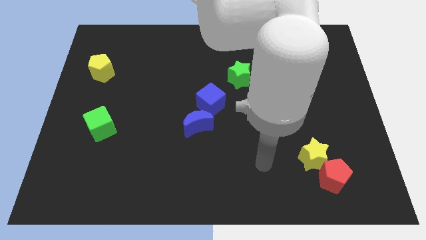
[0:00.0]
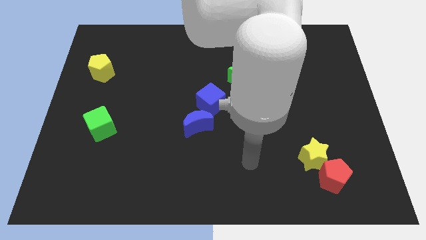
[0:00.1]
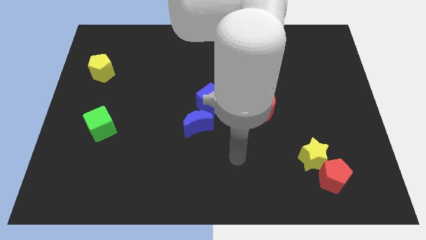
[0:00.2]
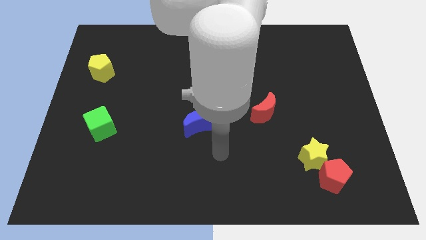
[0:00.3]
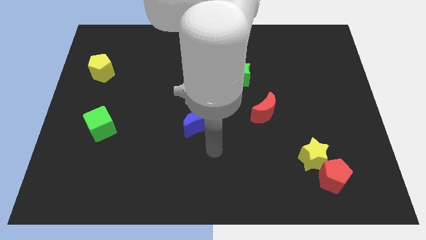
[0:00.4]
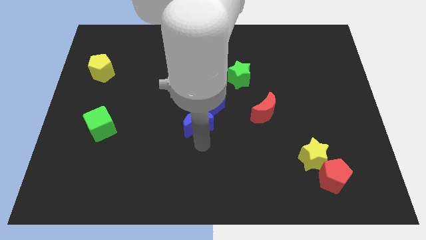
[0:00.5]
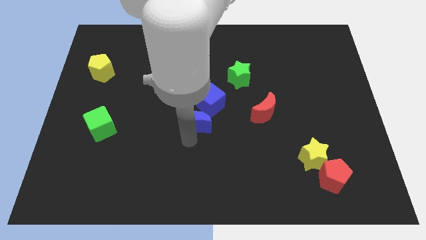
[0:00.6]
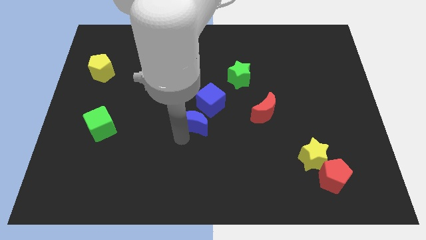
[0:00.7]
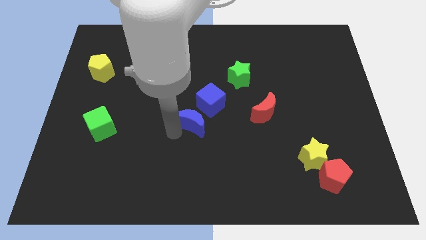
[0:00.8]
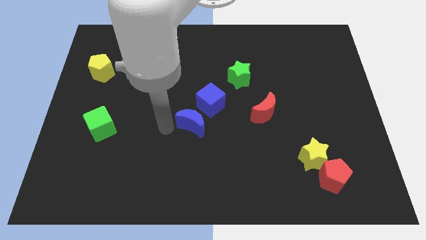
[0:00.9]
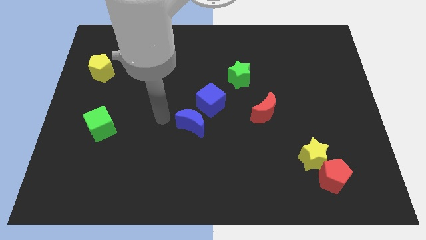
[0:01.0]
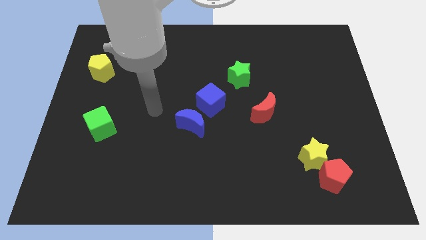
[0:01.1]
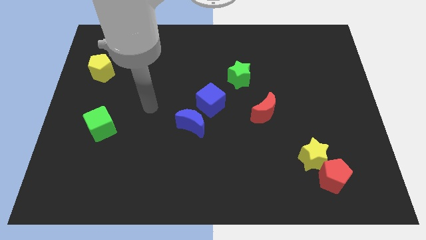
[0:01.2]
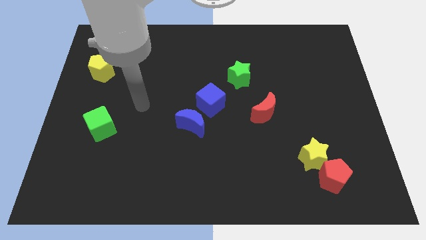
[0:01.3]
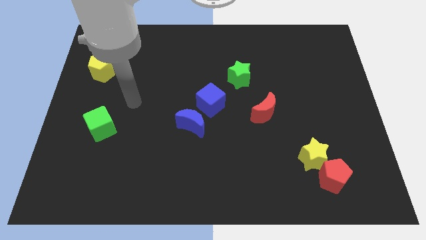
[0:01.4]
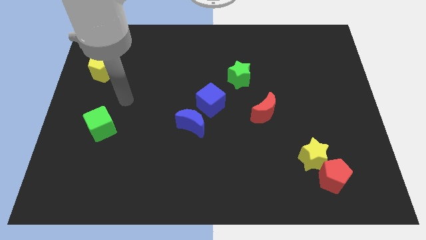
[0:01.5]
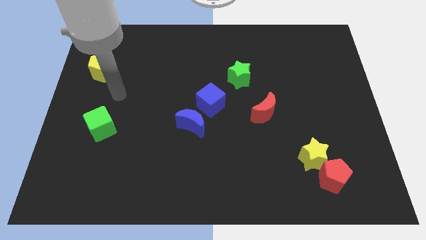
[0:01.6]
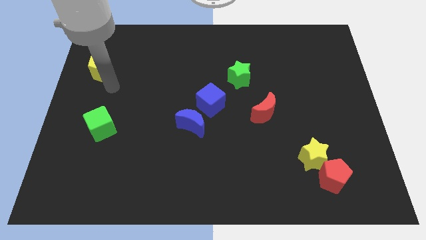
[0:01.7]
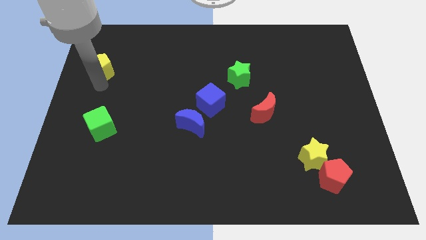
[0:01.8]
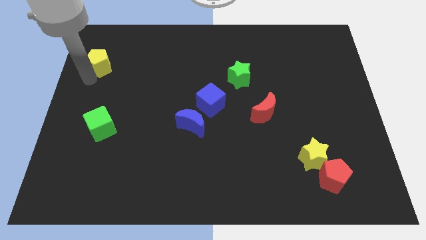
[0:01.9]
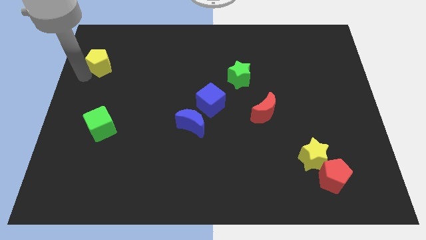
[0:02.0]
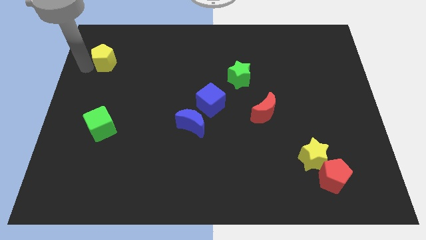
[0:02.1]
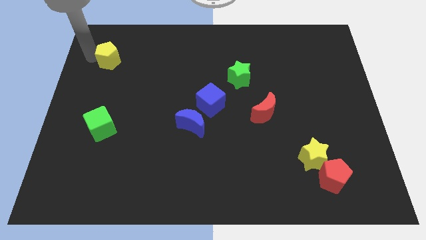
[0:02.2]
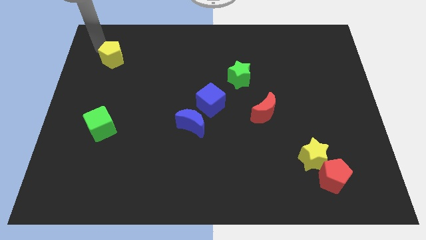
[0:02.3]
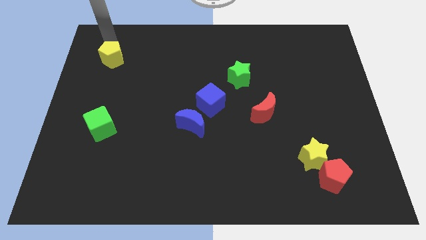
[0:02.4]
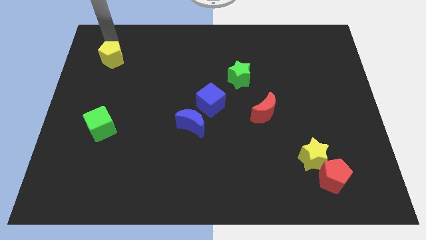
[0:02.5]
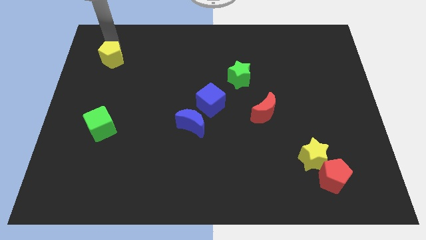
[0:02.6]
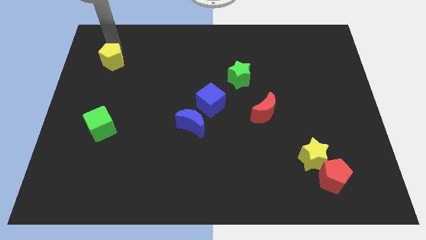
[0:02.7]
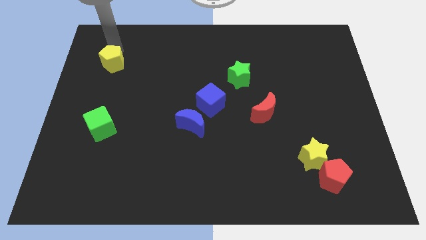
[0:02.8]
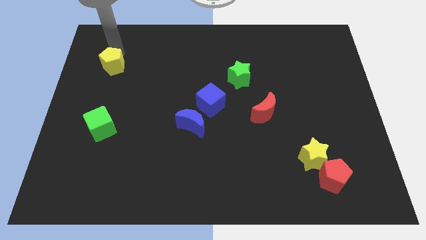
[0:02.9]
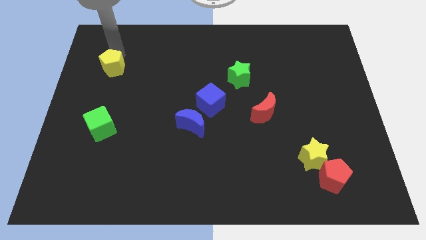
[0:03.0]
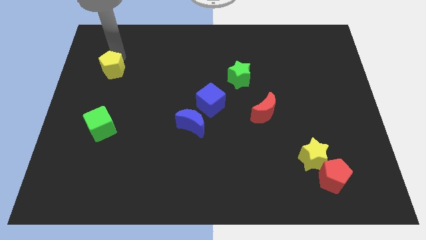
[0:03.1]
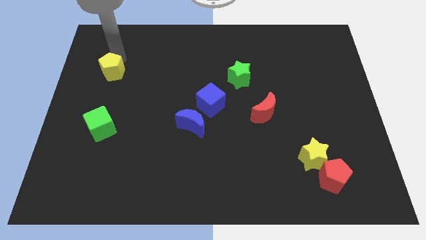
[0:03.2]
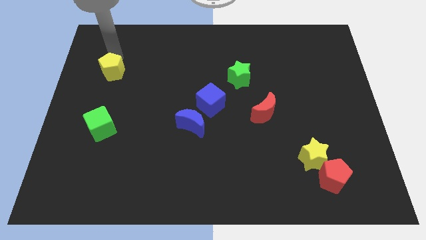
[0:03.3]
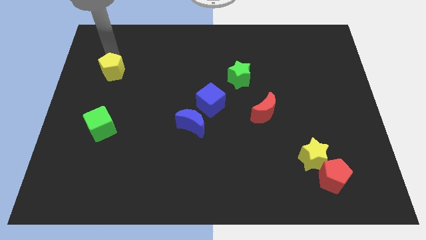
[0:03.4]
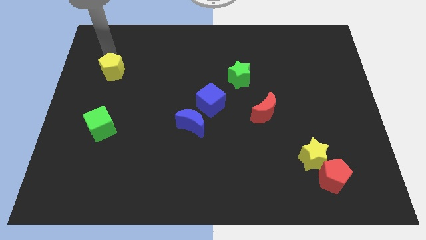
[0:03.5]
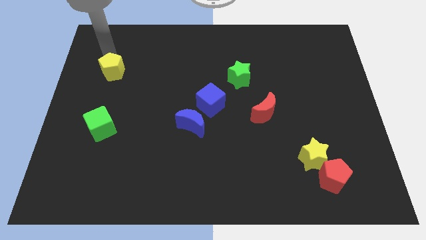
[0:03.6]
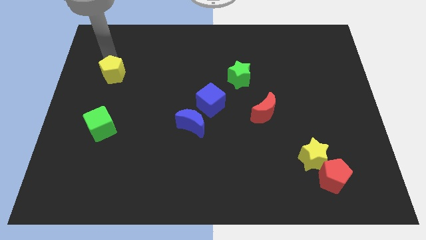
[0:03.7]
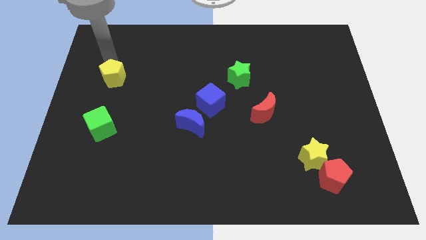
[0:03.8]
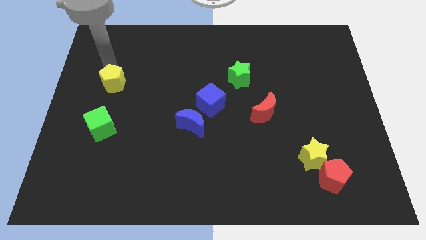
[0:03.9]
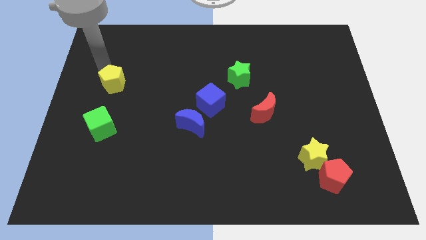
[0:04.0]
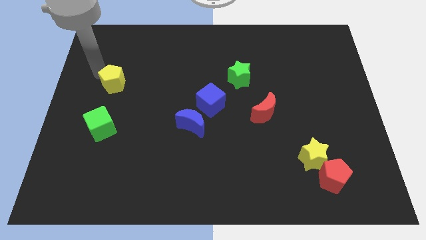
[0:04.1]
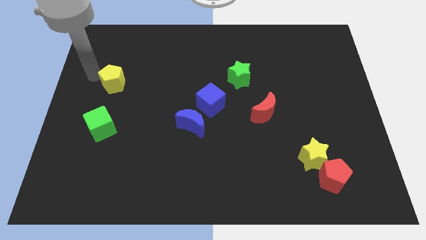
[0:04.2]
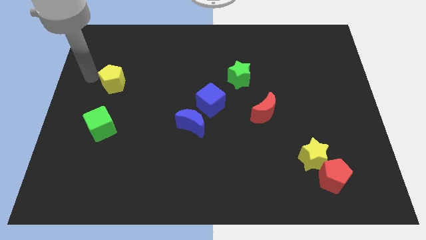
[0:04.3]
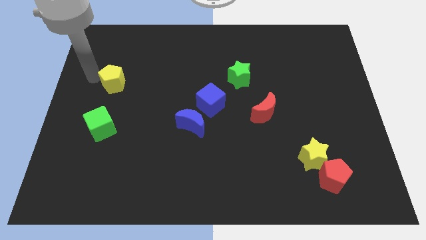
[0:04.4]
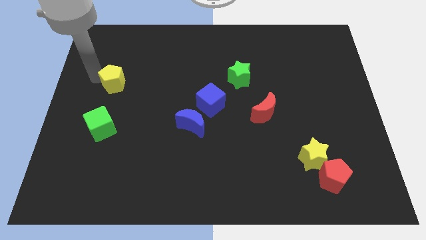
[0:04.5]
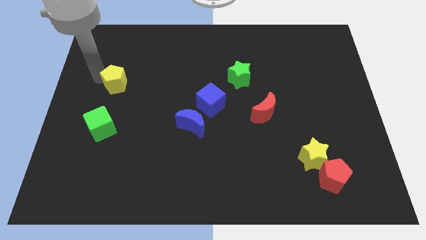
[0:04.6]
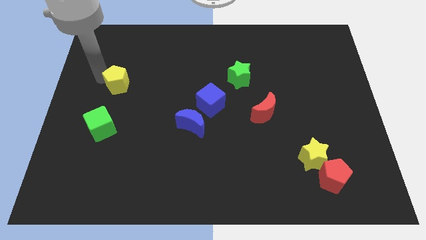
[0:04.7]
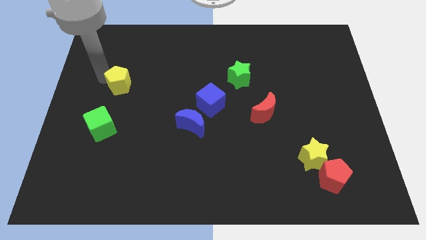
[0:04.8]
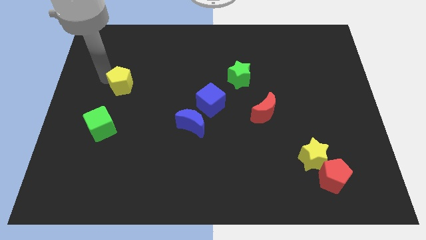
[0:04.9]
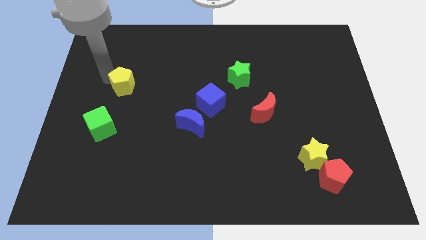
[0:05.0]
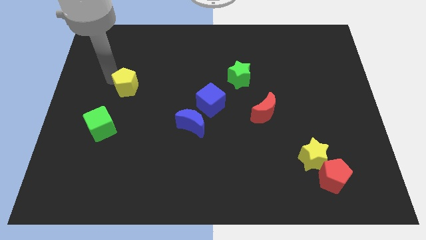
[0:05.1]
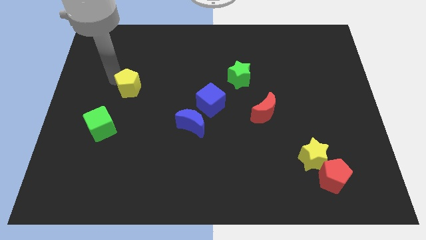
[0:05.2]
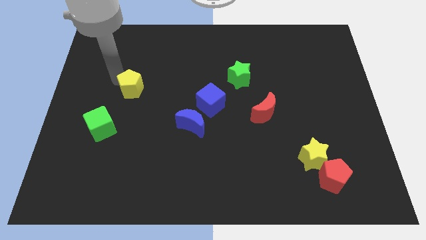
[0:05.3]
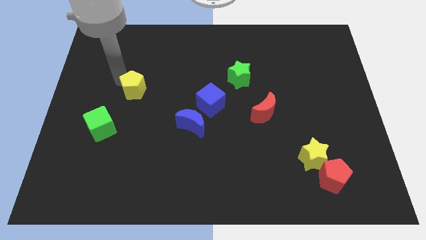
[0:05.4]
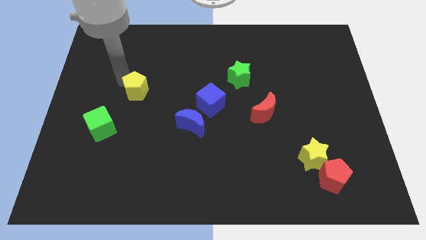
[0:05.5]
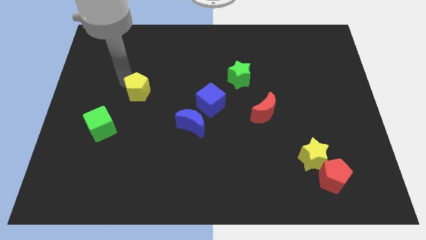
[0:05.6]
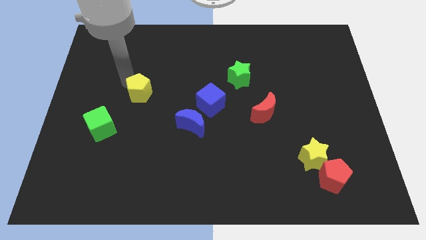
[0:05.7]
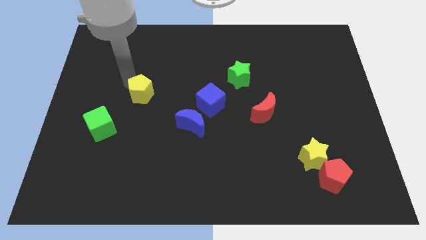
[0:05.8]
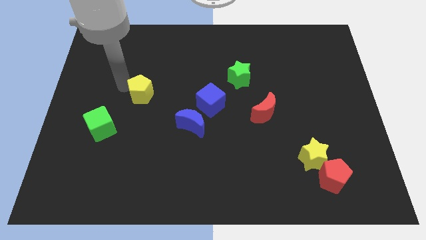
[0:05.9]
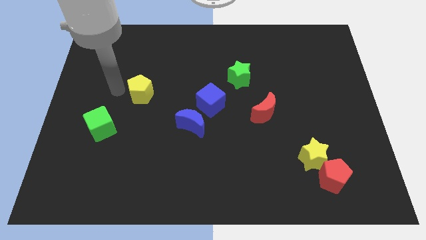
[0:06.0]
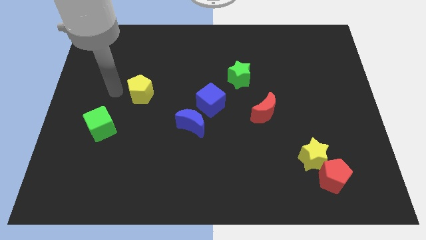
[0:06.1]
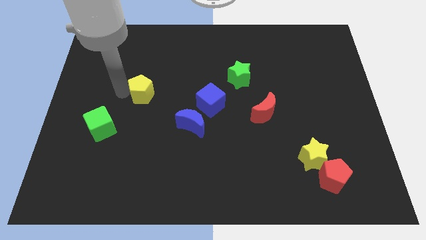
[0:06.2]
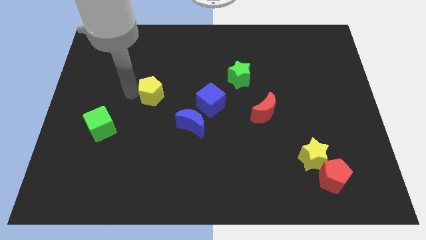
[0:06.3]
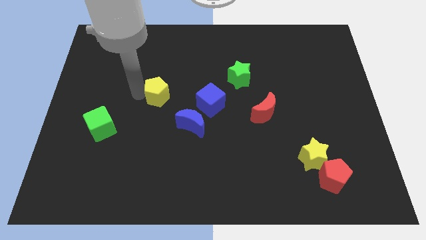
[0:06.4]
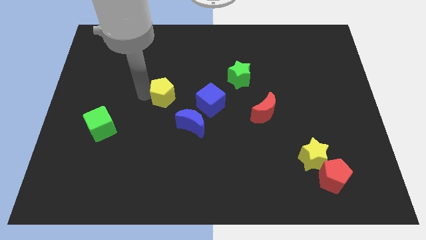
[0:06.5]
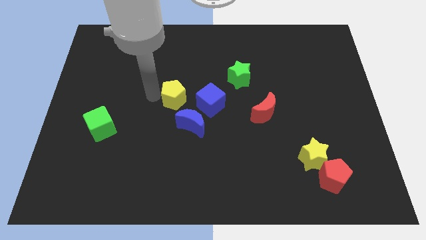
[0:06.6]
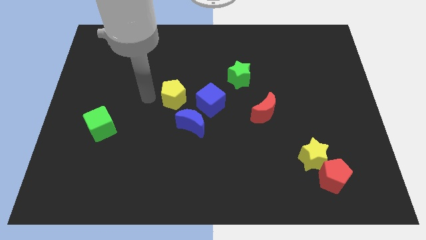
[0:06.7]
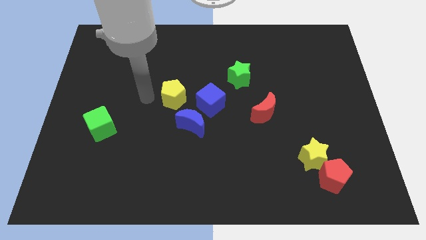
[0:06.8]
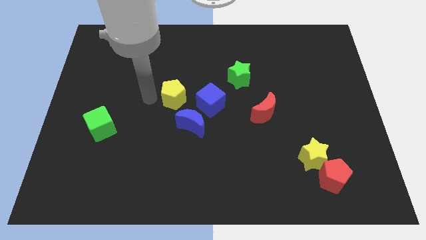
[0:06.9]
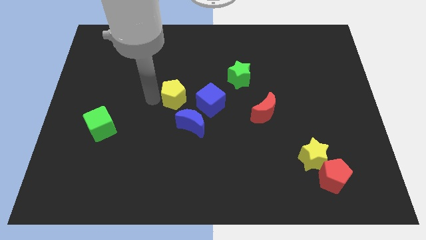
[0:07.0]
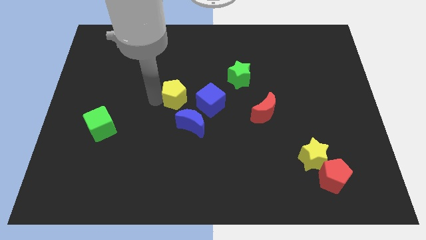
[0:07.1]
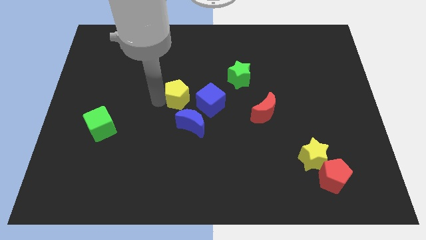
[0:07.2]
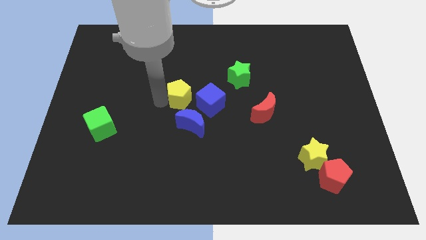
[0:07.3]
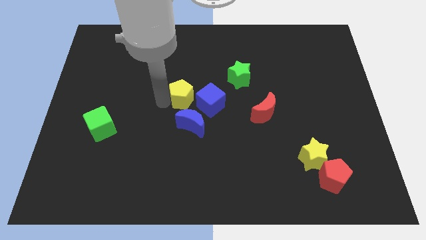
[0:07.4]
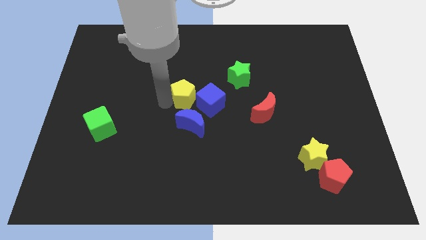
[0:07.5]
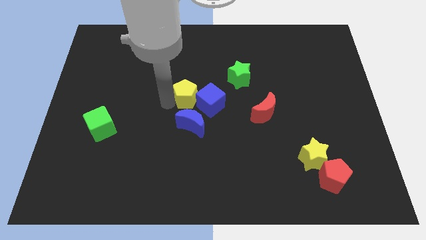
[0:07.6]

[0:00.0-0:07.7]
put the yellow pentagon next to the blue cube
